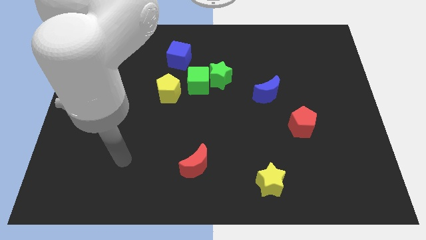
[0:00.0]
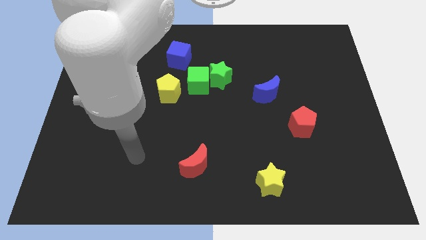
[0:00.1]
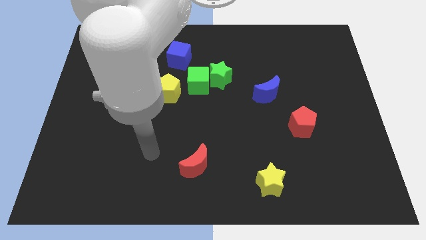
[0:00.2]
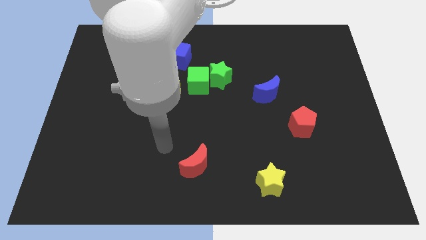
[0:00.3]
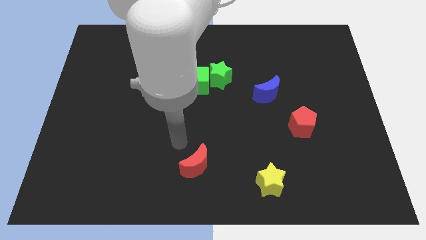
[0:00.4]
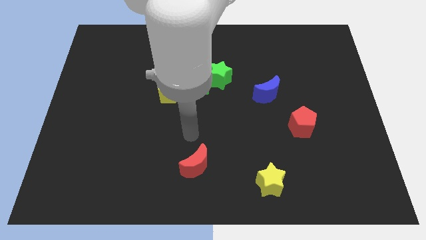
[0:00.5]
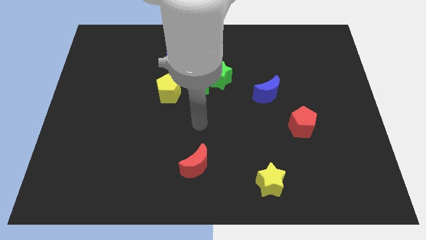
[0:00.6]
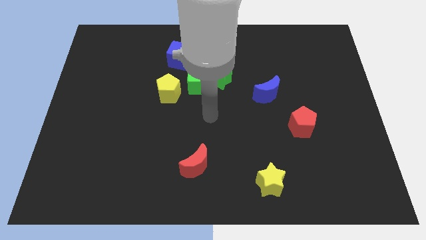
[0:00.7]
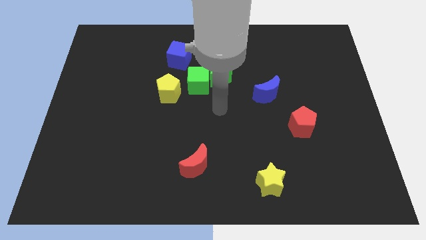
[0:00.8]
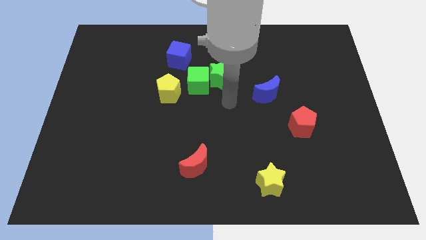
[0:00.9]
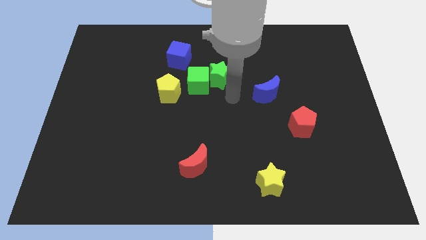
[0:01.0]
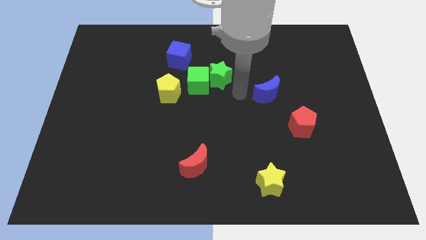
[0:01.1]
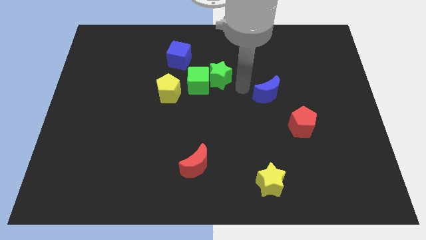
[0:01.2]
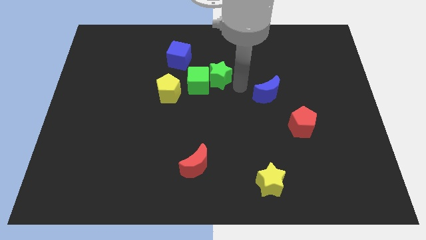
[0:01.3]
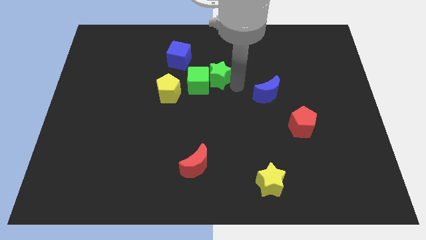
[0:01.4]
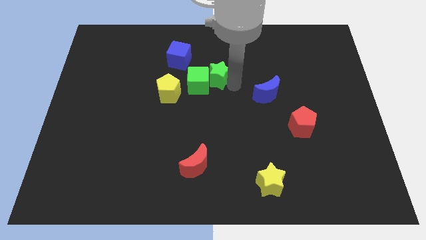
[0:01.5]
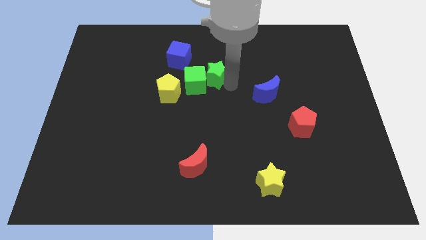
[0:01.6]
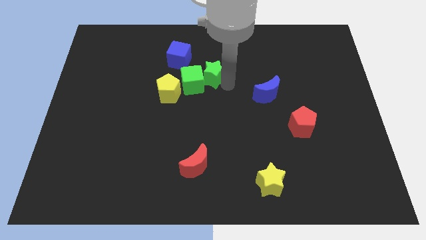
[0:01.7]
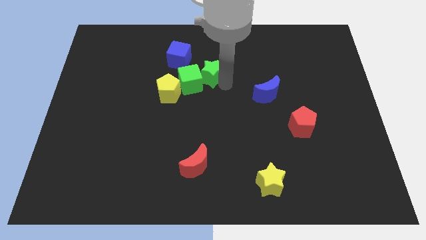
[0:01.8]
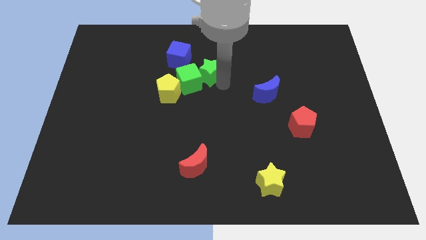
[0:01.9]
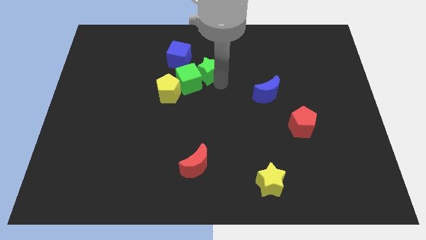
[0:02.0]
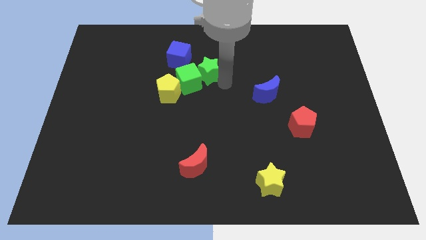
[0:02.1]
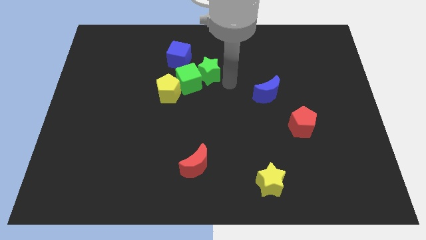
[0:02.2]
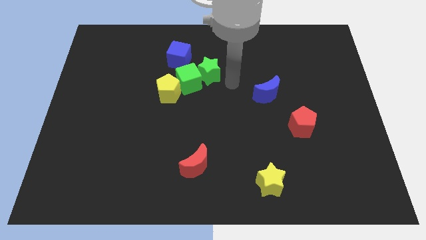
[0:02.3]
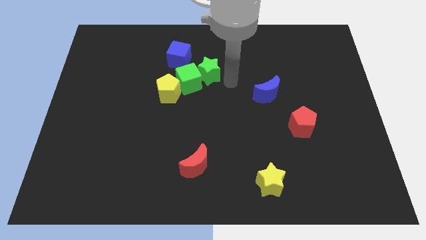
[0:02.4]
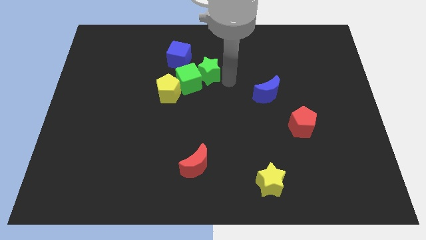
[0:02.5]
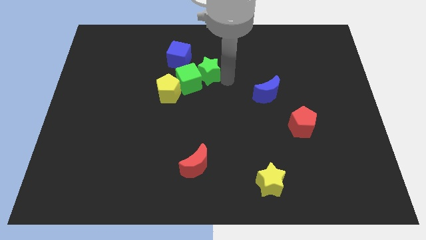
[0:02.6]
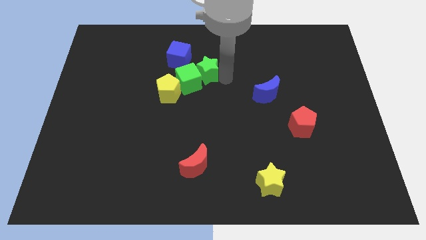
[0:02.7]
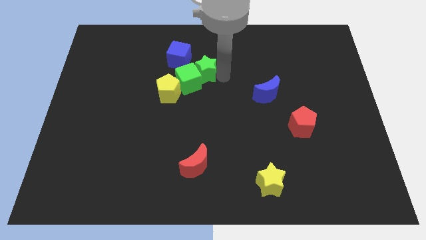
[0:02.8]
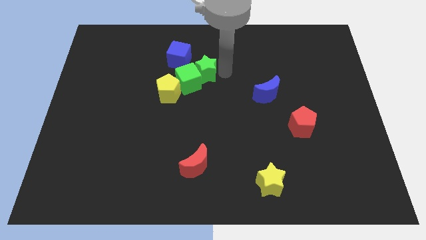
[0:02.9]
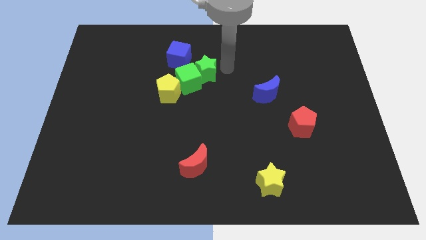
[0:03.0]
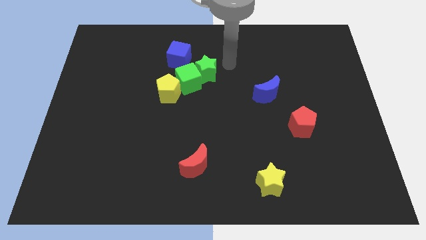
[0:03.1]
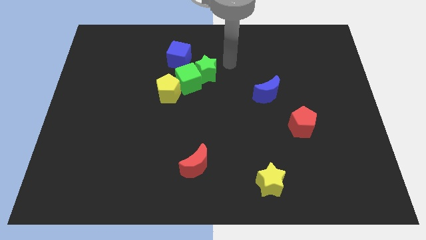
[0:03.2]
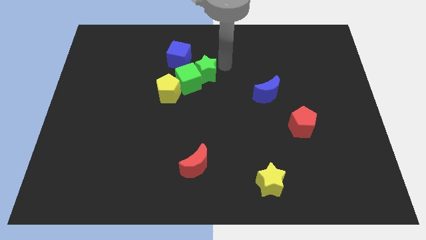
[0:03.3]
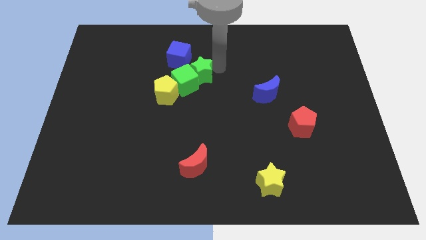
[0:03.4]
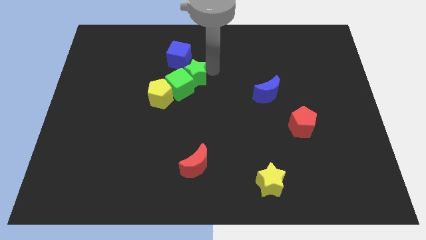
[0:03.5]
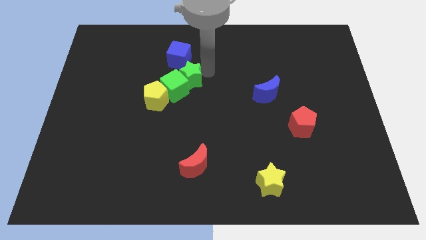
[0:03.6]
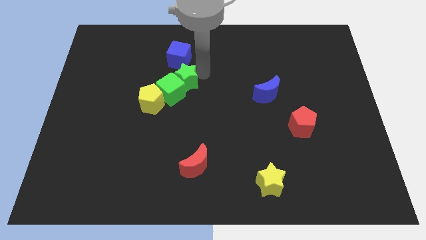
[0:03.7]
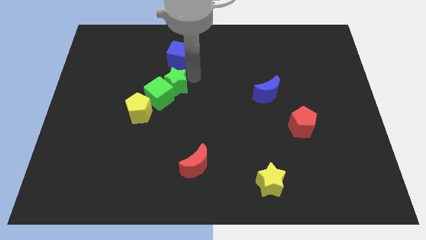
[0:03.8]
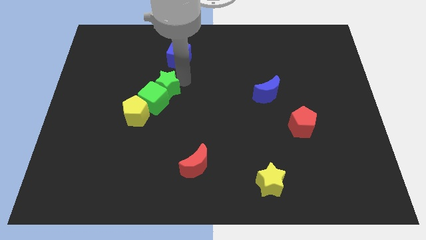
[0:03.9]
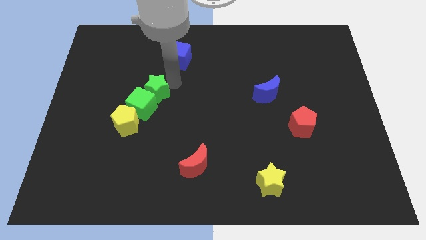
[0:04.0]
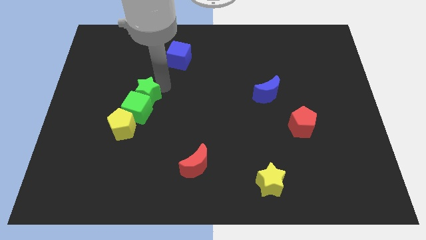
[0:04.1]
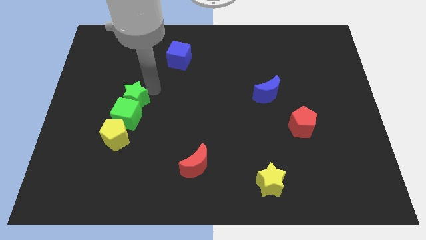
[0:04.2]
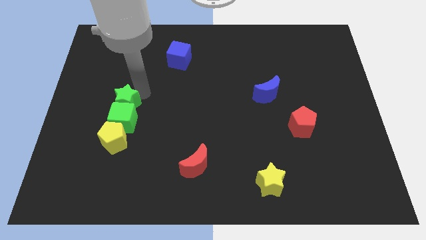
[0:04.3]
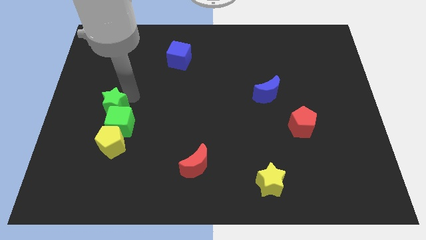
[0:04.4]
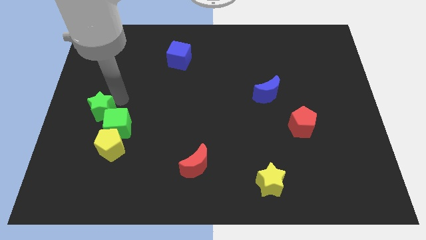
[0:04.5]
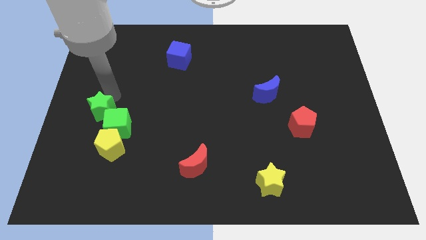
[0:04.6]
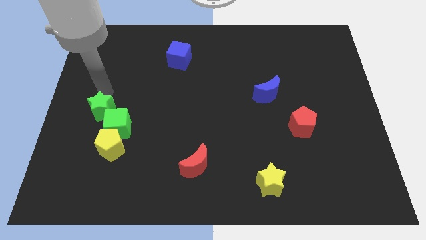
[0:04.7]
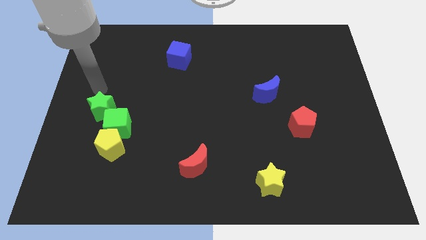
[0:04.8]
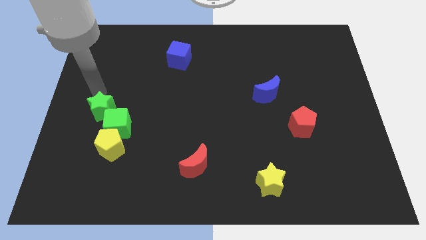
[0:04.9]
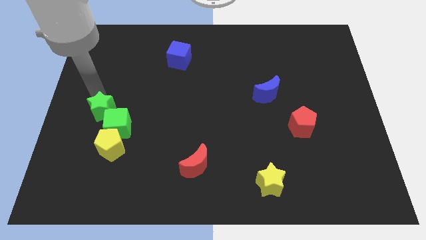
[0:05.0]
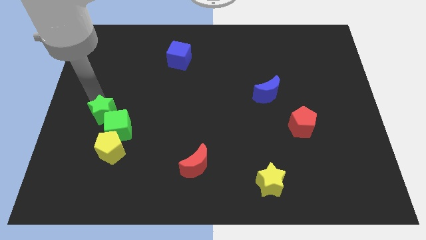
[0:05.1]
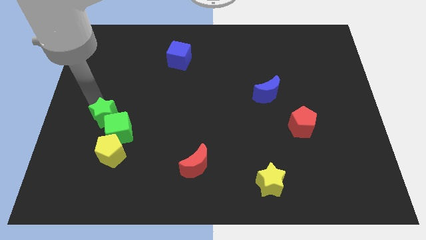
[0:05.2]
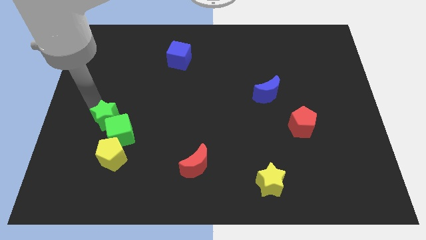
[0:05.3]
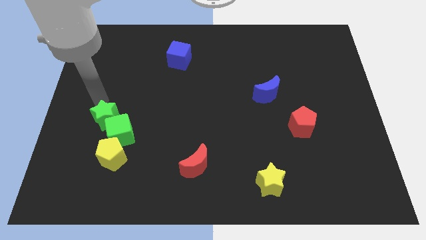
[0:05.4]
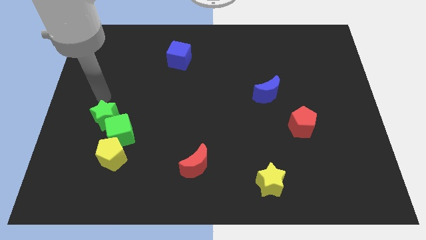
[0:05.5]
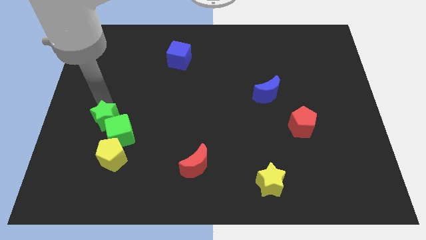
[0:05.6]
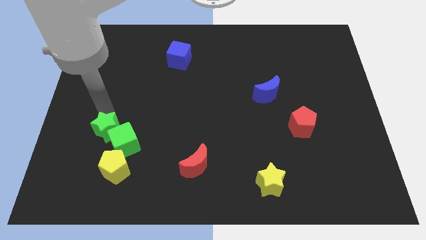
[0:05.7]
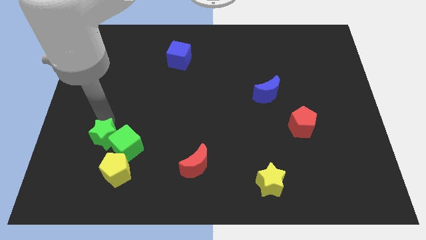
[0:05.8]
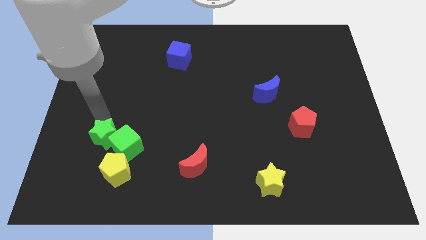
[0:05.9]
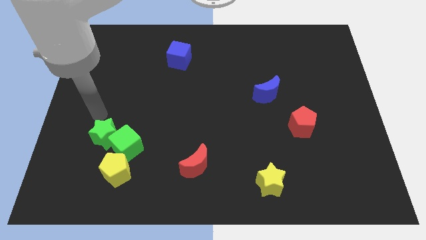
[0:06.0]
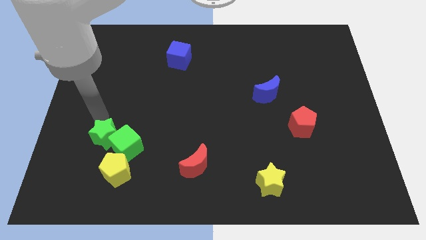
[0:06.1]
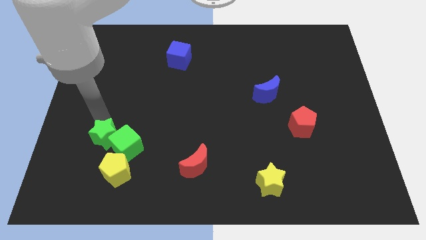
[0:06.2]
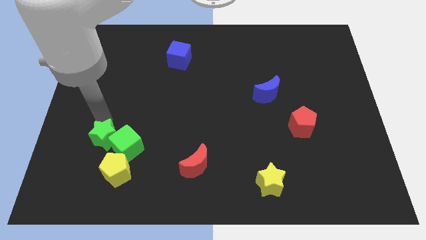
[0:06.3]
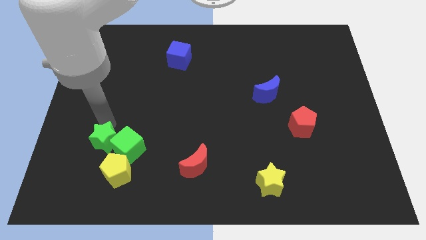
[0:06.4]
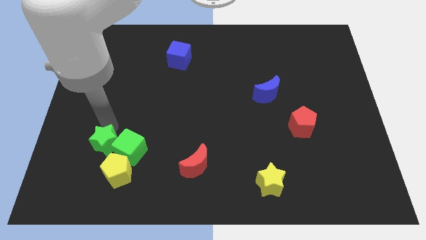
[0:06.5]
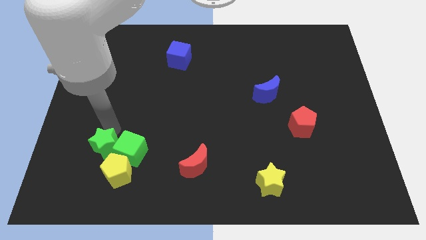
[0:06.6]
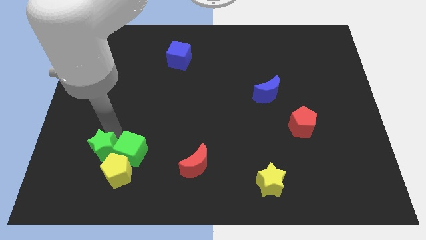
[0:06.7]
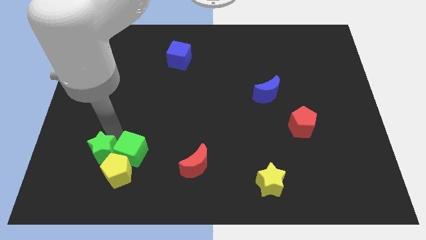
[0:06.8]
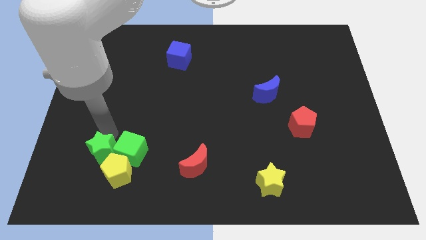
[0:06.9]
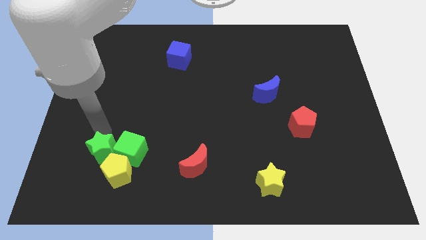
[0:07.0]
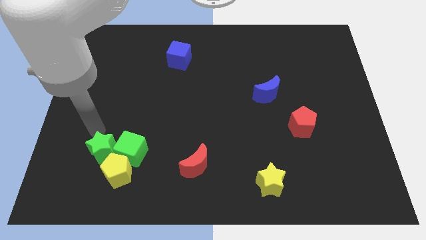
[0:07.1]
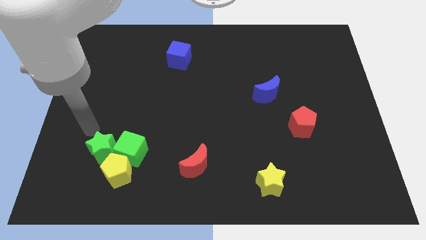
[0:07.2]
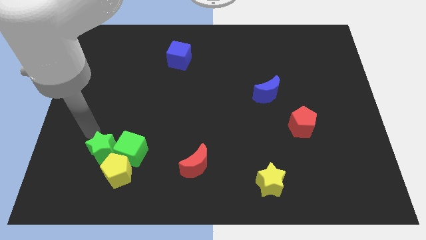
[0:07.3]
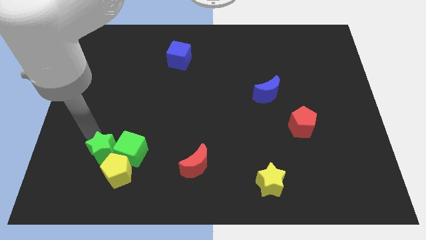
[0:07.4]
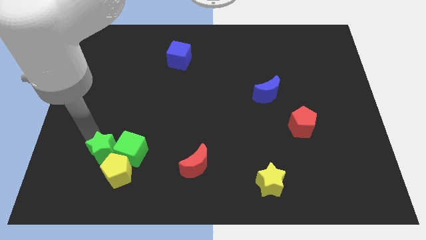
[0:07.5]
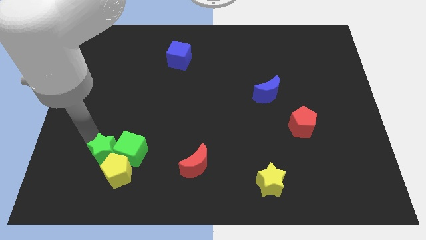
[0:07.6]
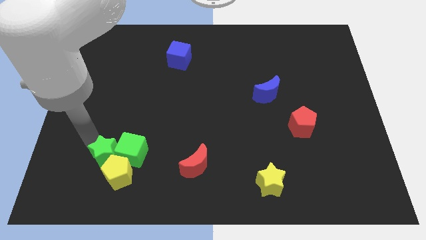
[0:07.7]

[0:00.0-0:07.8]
push the green star towards the yellow pentagon
